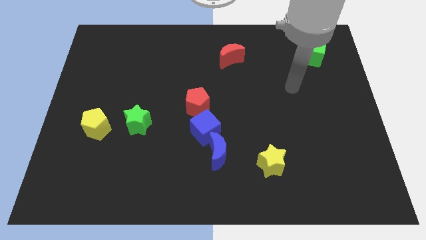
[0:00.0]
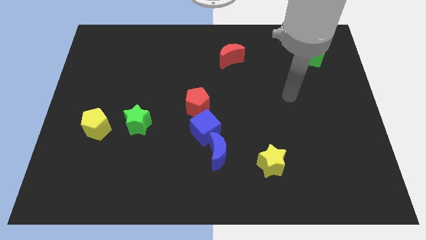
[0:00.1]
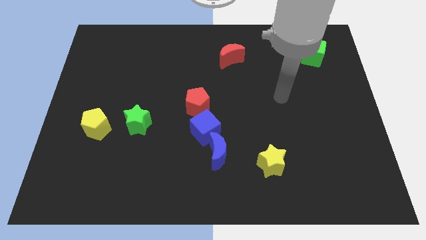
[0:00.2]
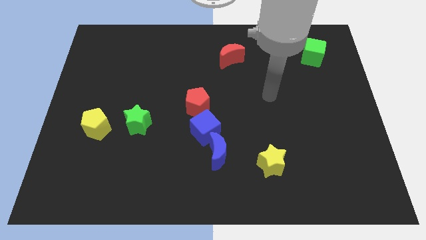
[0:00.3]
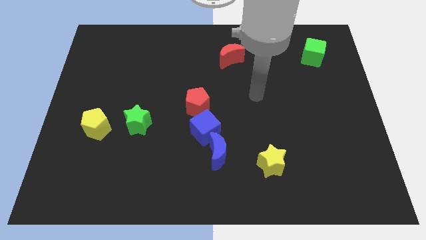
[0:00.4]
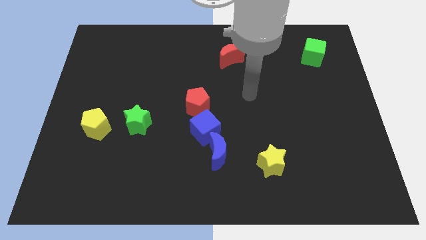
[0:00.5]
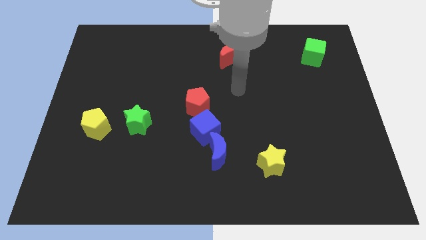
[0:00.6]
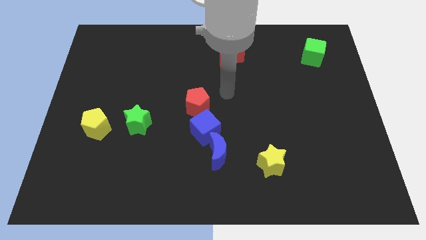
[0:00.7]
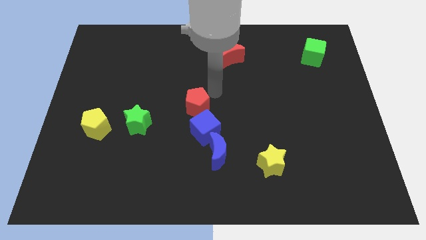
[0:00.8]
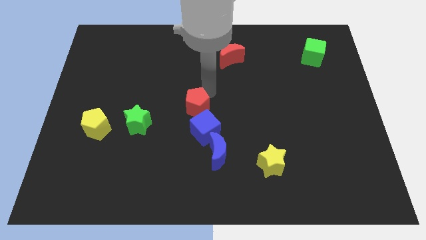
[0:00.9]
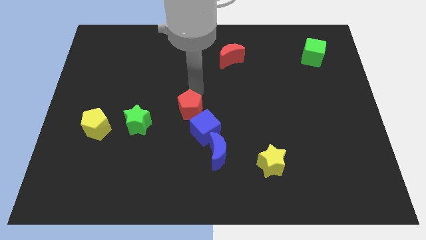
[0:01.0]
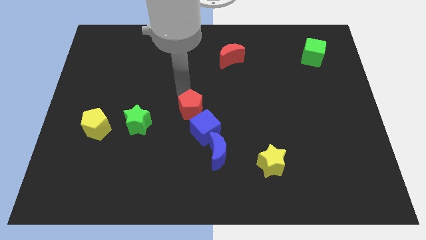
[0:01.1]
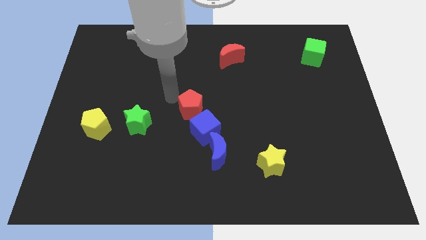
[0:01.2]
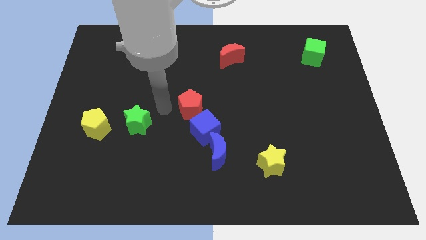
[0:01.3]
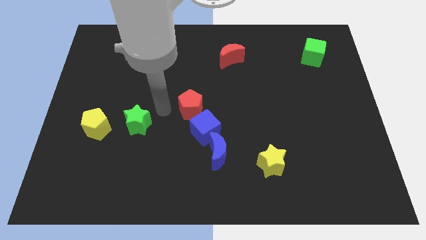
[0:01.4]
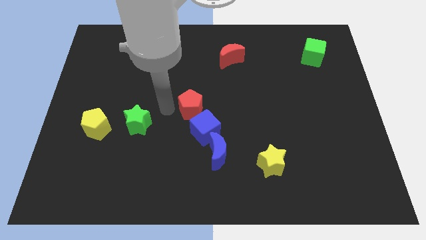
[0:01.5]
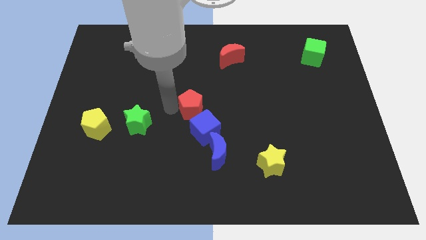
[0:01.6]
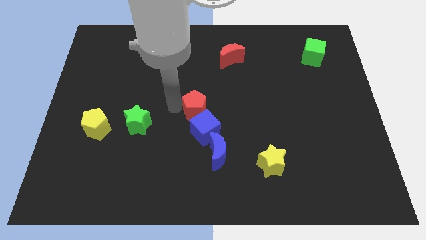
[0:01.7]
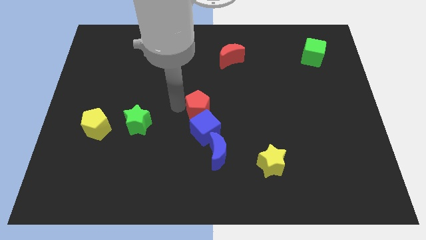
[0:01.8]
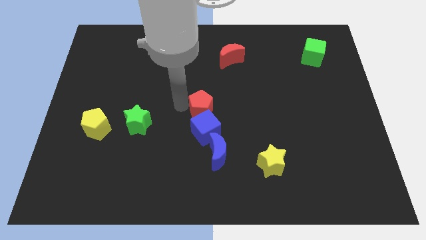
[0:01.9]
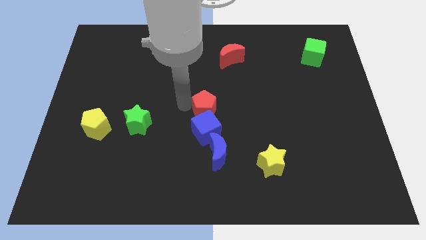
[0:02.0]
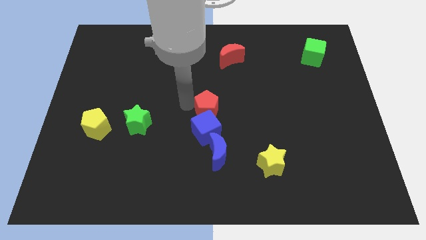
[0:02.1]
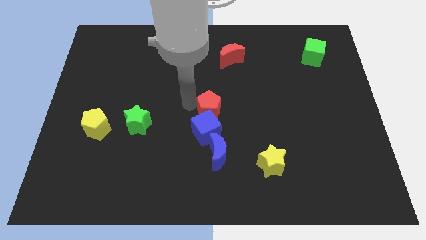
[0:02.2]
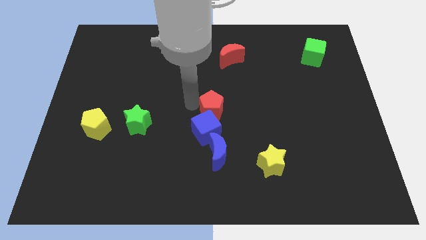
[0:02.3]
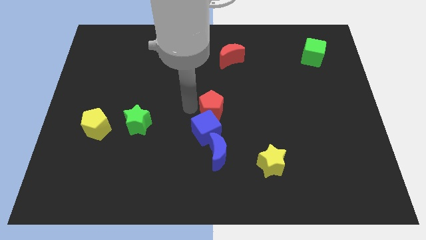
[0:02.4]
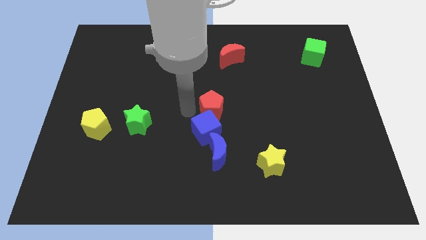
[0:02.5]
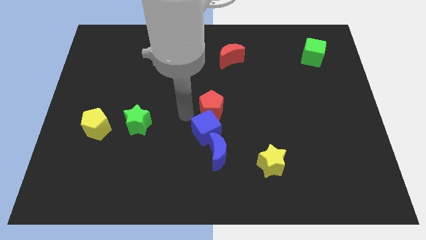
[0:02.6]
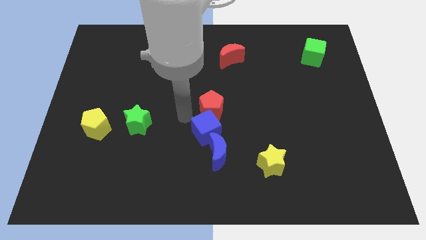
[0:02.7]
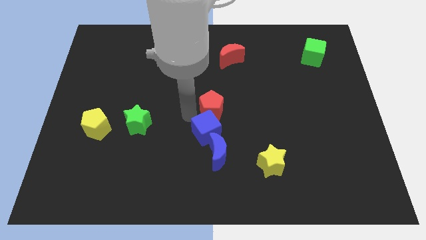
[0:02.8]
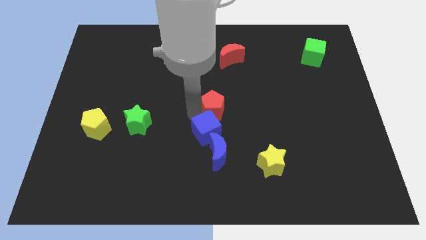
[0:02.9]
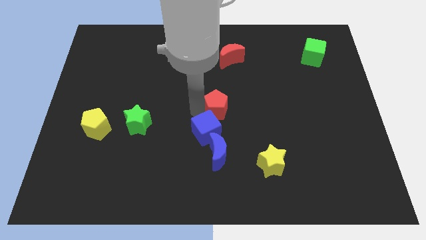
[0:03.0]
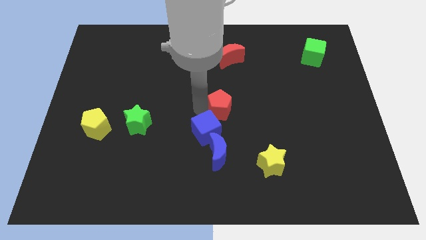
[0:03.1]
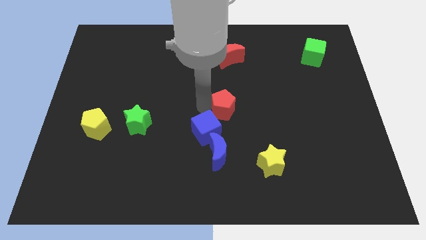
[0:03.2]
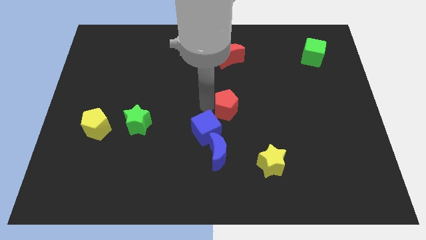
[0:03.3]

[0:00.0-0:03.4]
push the red pentagon a bit to the right

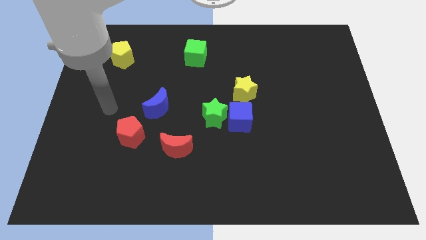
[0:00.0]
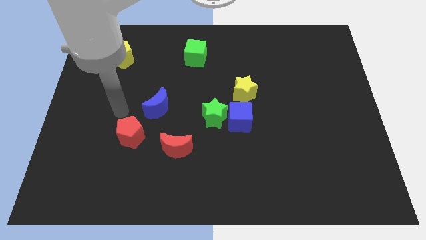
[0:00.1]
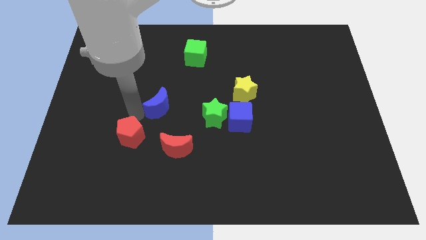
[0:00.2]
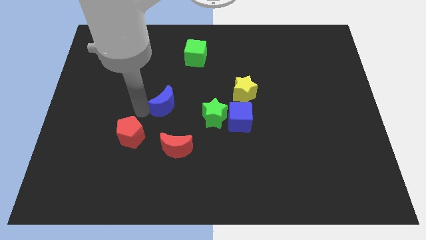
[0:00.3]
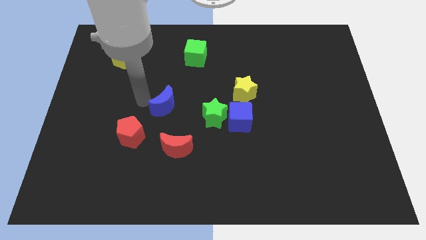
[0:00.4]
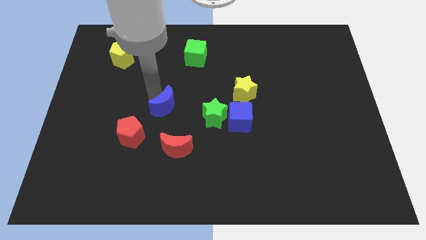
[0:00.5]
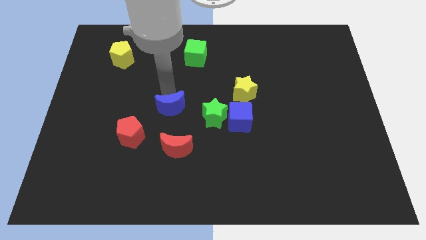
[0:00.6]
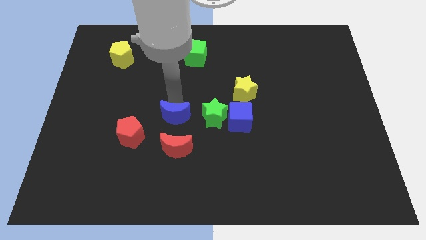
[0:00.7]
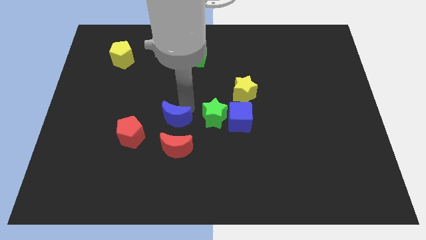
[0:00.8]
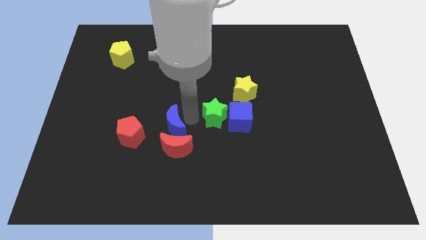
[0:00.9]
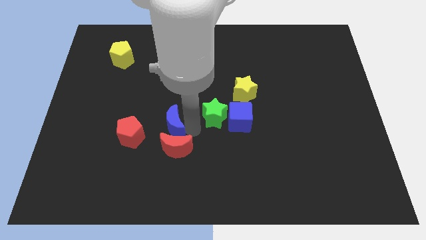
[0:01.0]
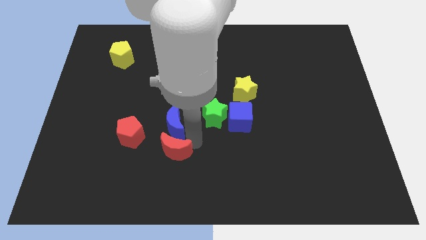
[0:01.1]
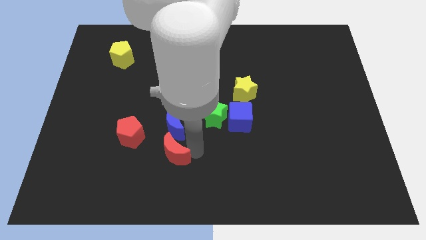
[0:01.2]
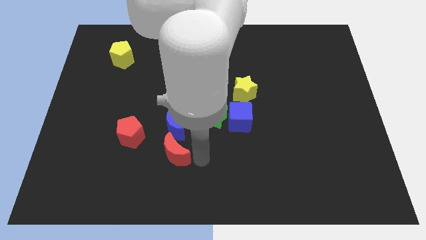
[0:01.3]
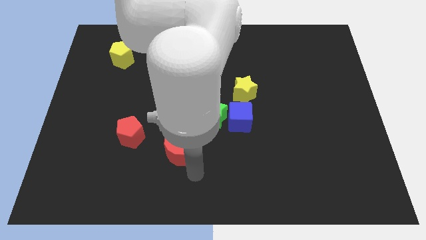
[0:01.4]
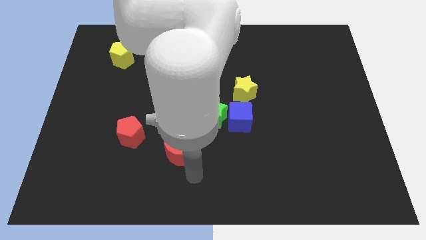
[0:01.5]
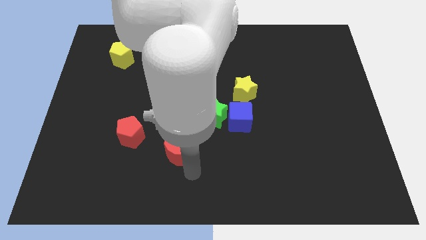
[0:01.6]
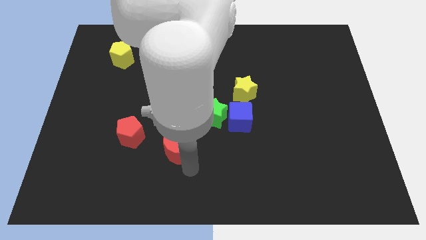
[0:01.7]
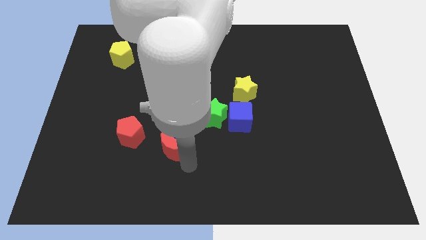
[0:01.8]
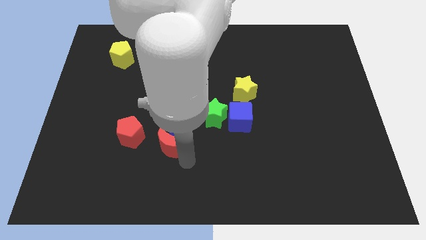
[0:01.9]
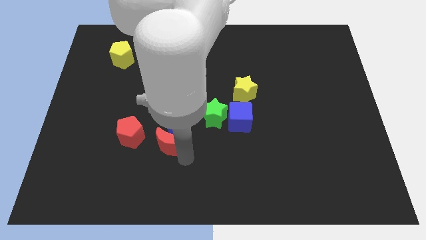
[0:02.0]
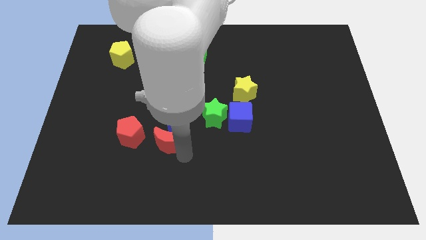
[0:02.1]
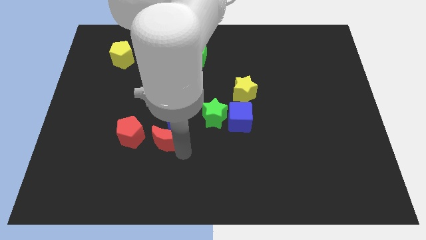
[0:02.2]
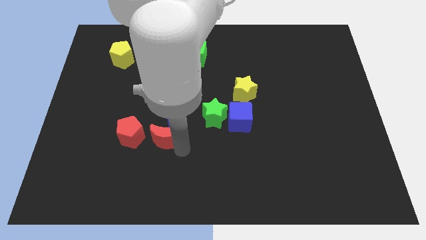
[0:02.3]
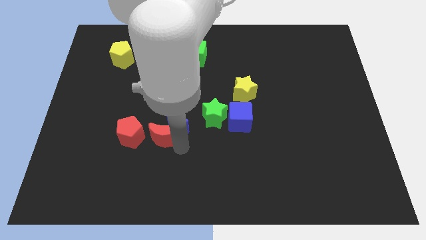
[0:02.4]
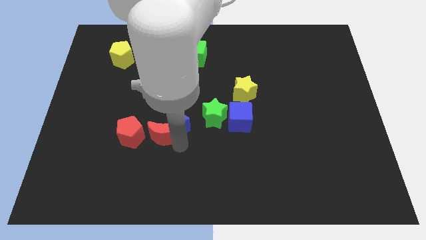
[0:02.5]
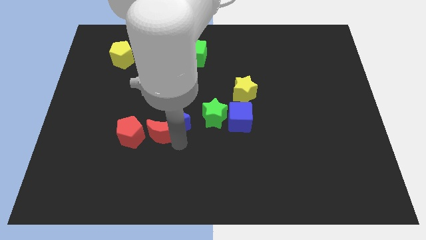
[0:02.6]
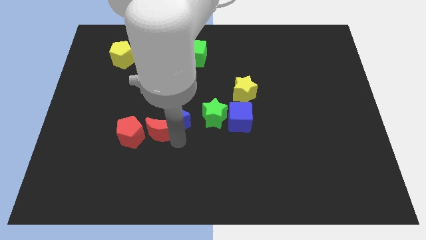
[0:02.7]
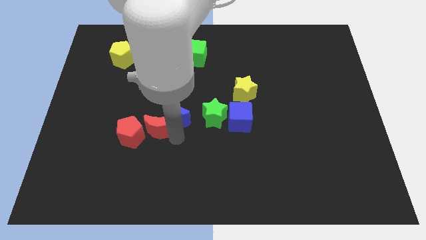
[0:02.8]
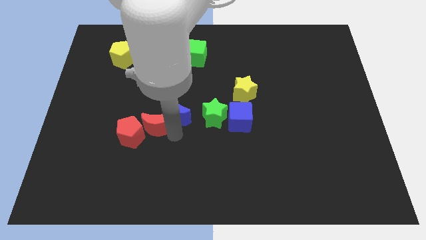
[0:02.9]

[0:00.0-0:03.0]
move the red moon upwards and to the left somewhat

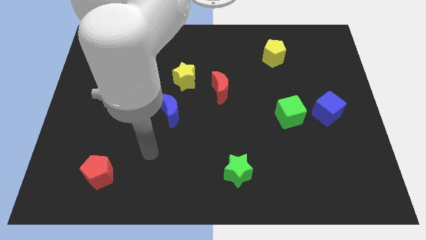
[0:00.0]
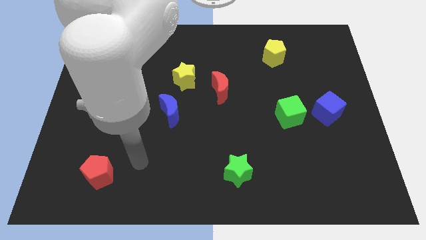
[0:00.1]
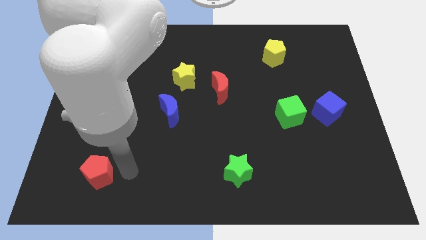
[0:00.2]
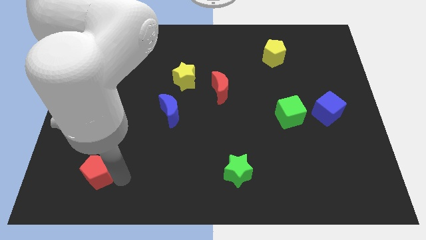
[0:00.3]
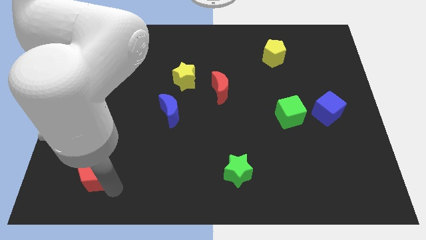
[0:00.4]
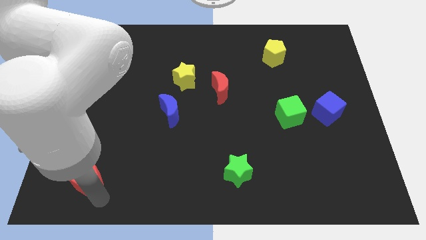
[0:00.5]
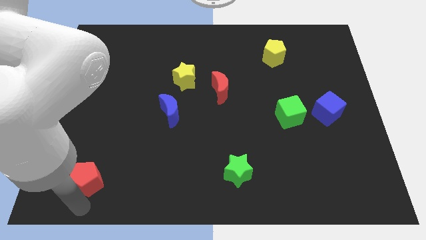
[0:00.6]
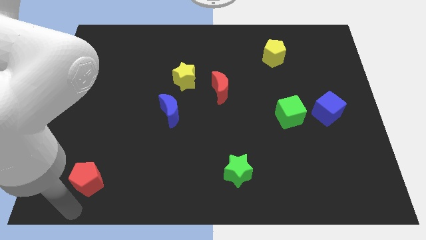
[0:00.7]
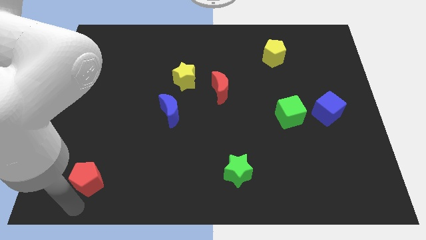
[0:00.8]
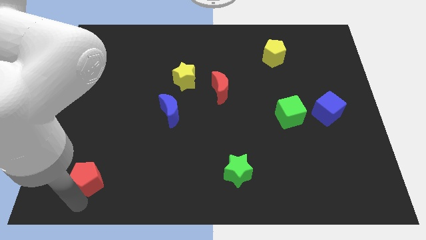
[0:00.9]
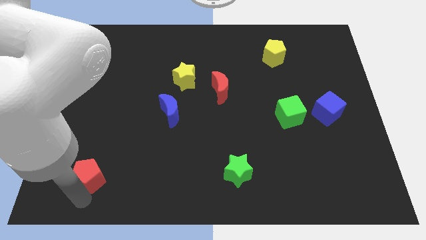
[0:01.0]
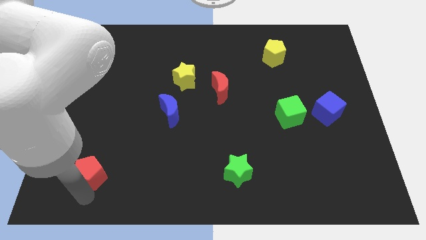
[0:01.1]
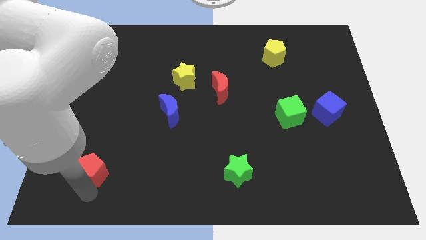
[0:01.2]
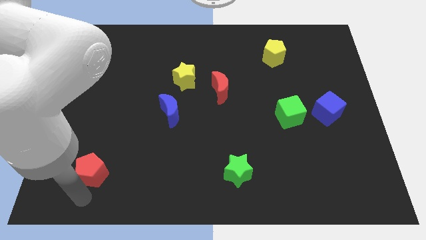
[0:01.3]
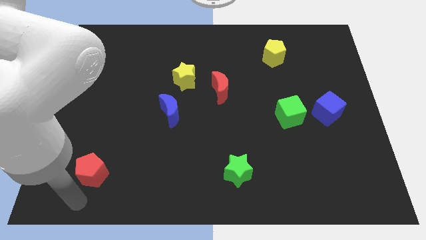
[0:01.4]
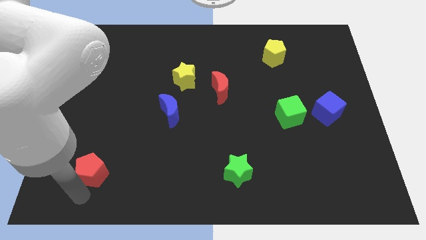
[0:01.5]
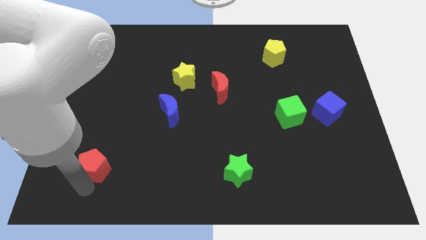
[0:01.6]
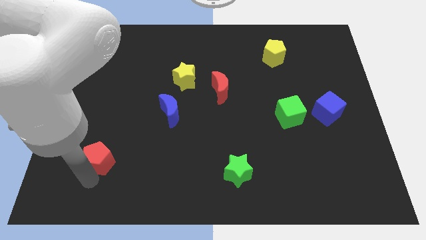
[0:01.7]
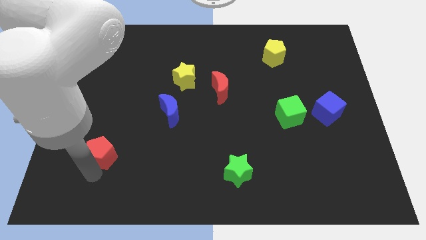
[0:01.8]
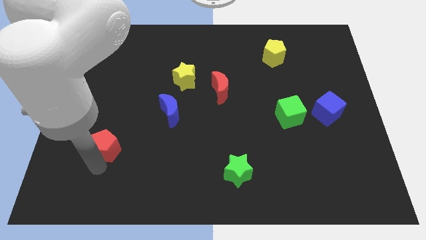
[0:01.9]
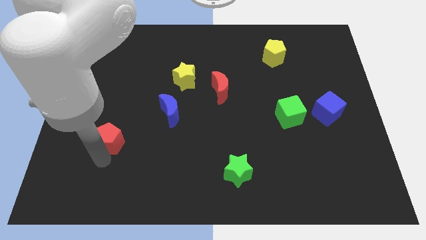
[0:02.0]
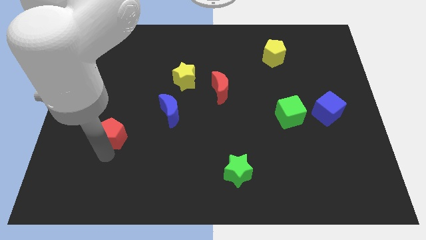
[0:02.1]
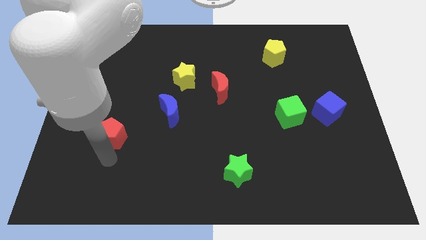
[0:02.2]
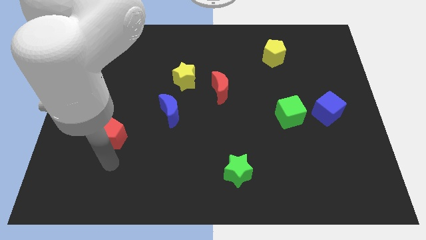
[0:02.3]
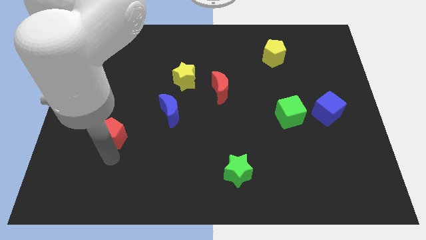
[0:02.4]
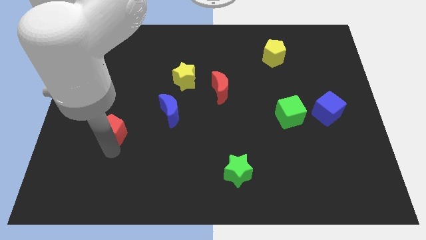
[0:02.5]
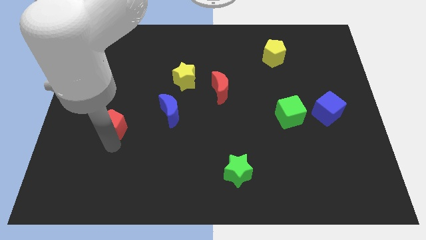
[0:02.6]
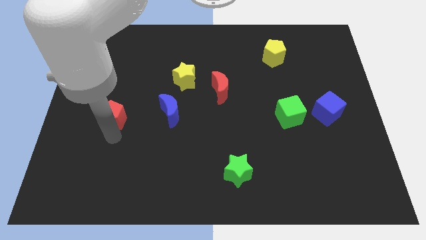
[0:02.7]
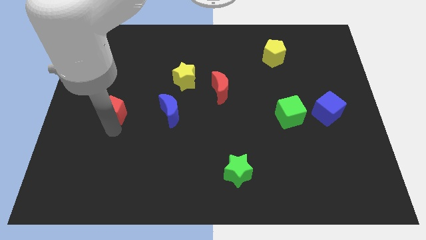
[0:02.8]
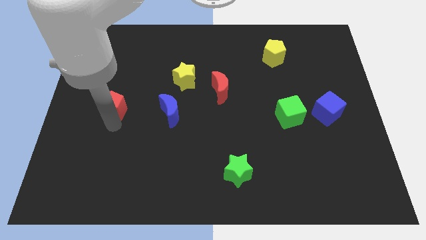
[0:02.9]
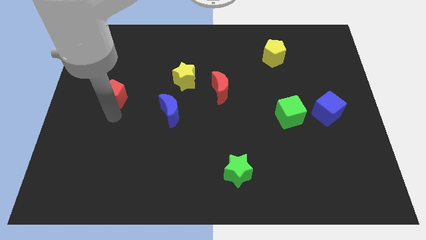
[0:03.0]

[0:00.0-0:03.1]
slide the red pentagon upwards
